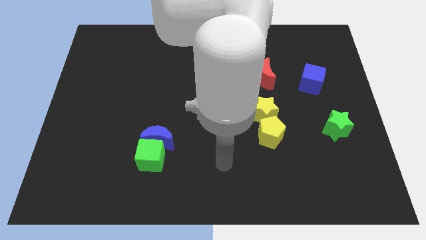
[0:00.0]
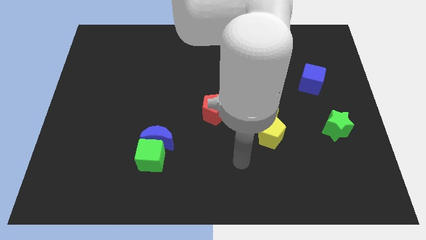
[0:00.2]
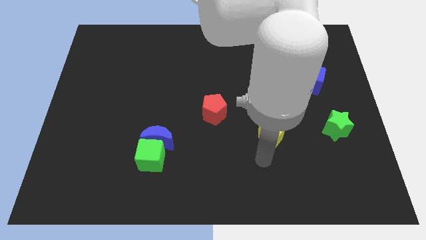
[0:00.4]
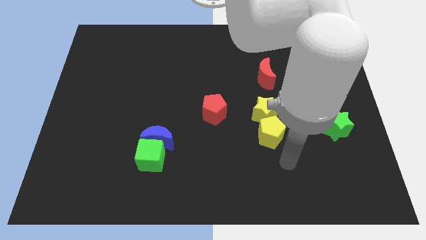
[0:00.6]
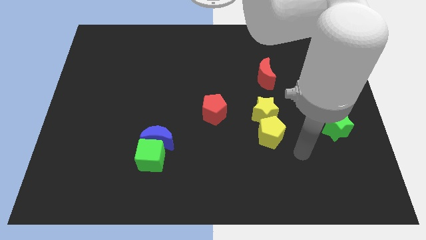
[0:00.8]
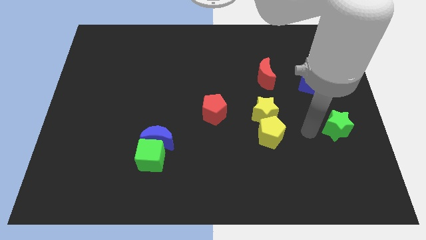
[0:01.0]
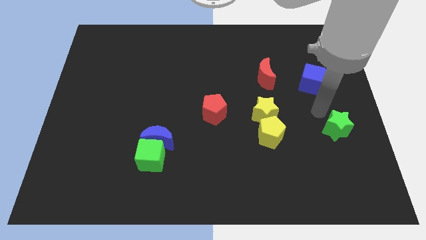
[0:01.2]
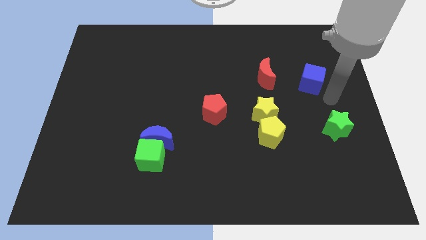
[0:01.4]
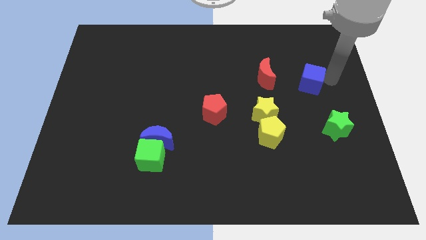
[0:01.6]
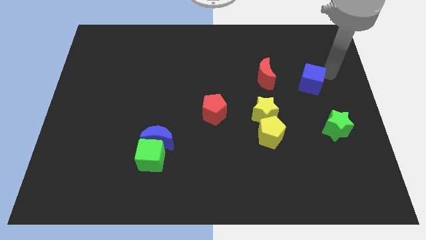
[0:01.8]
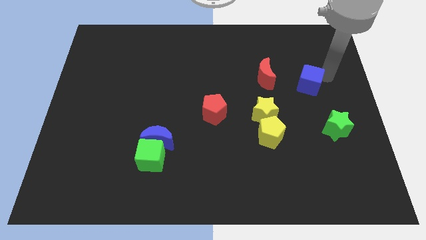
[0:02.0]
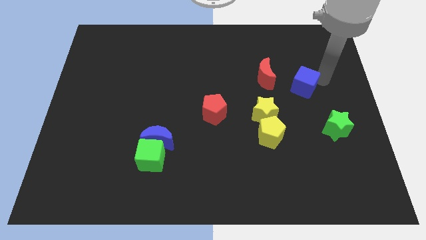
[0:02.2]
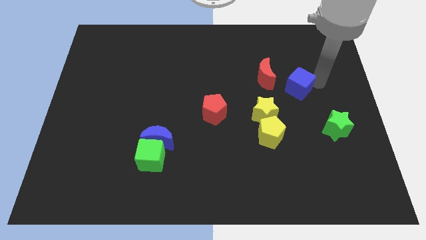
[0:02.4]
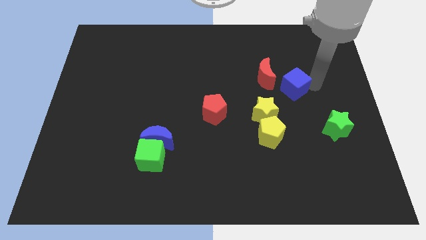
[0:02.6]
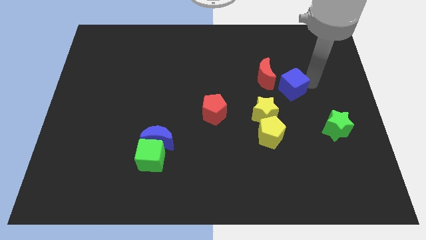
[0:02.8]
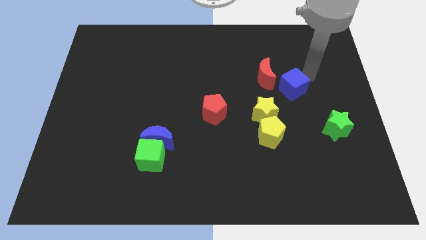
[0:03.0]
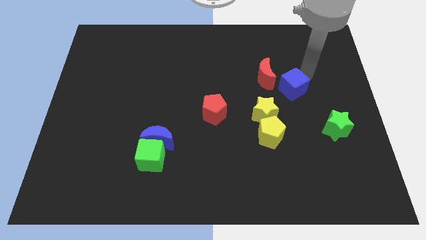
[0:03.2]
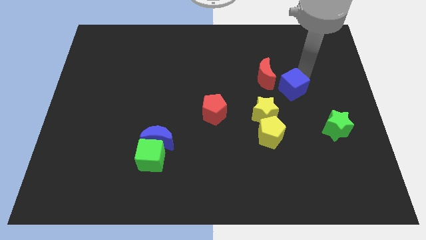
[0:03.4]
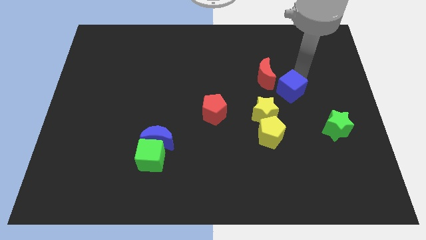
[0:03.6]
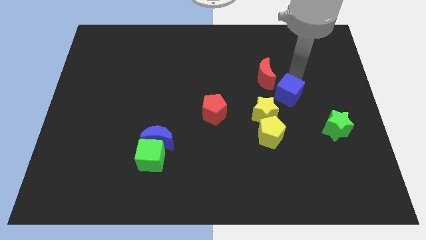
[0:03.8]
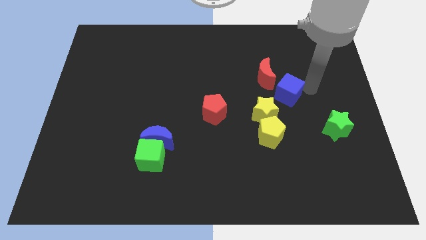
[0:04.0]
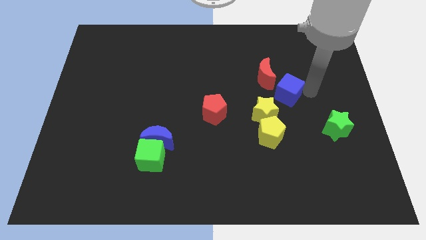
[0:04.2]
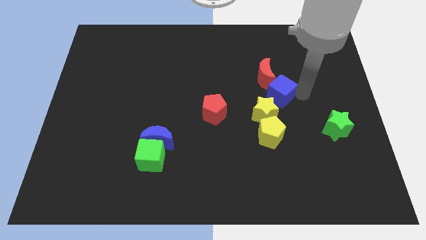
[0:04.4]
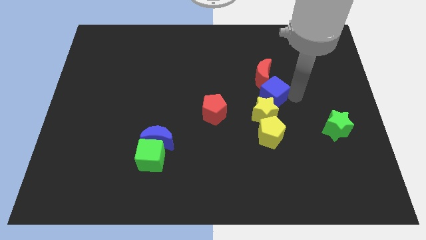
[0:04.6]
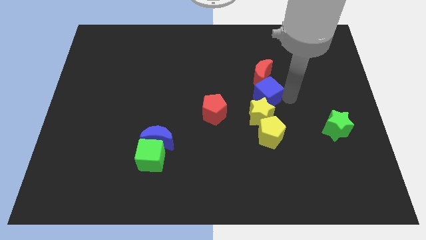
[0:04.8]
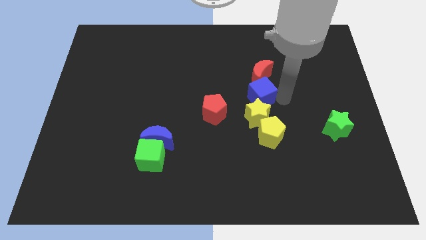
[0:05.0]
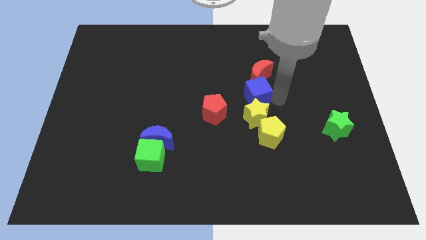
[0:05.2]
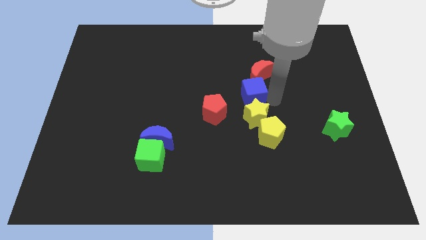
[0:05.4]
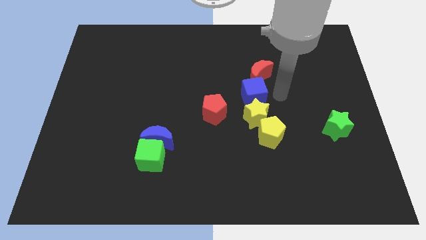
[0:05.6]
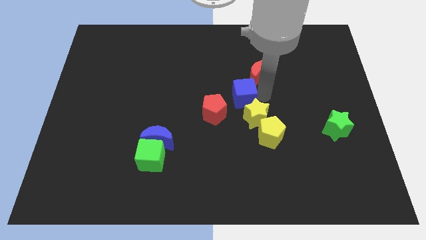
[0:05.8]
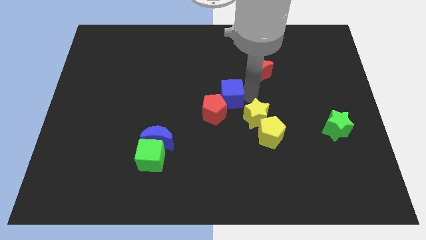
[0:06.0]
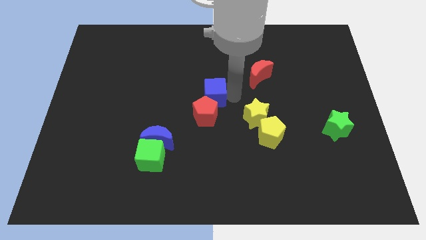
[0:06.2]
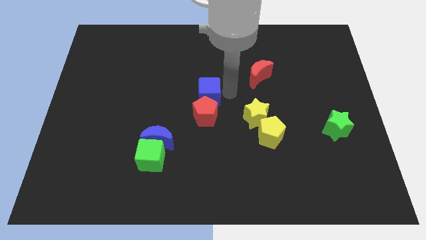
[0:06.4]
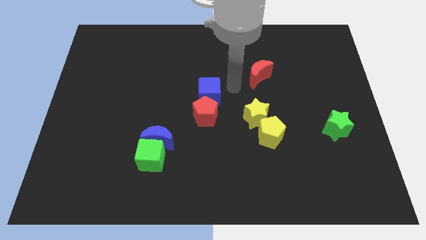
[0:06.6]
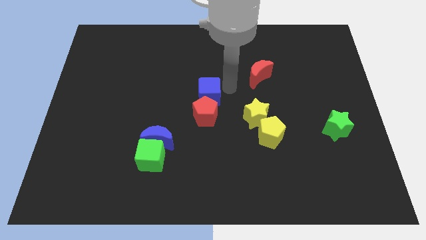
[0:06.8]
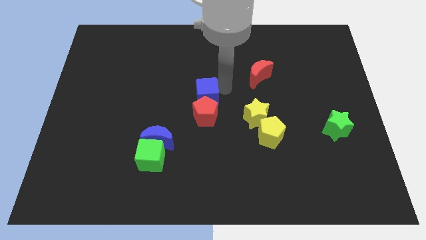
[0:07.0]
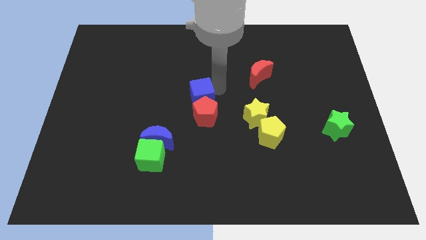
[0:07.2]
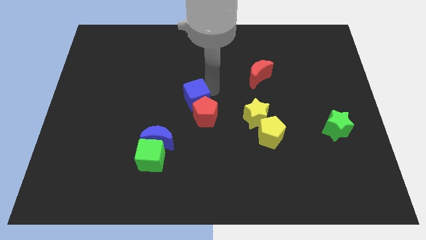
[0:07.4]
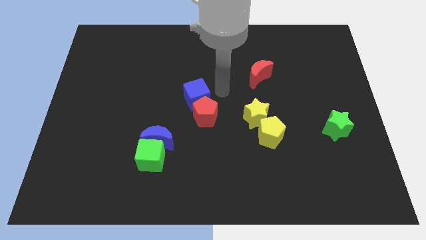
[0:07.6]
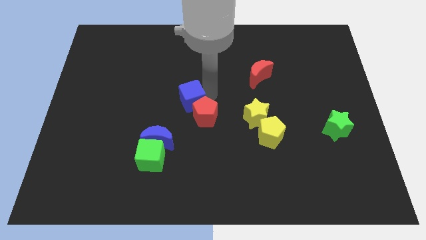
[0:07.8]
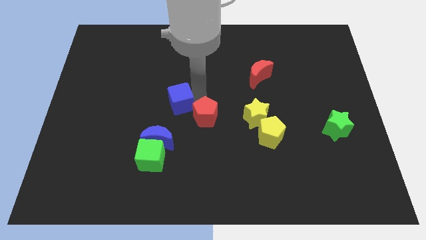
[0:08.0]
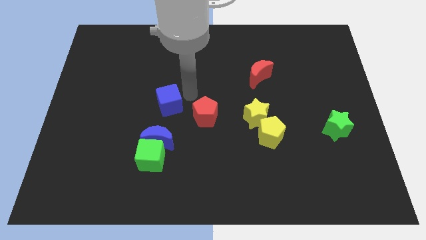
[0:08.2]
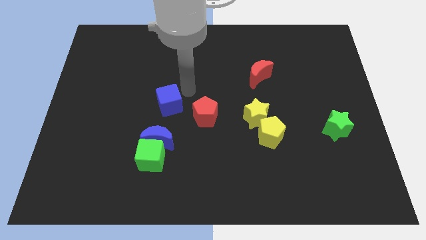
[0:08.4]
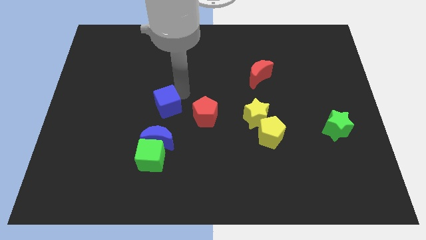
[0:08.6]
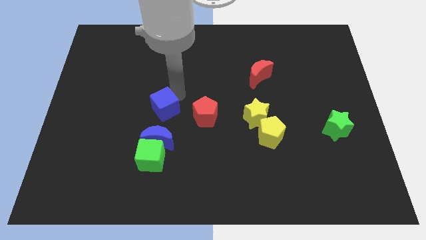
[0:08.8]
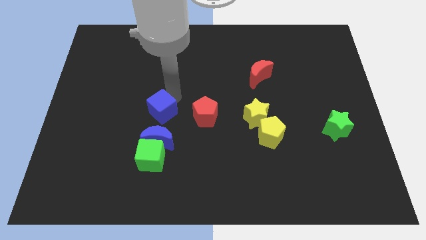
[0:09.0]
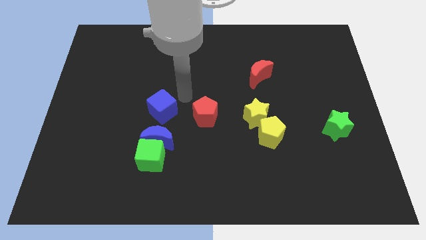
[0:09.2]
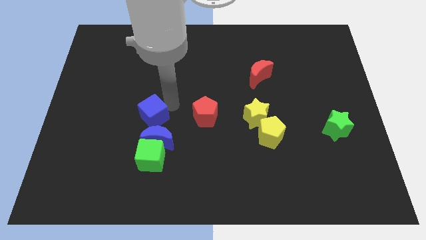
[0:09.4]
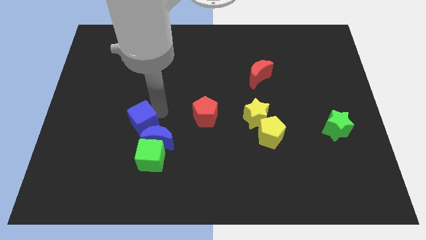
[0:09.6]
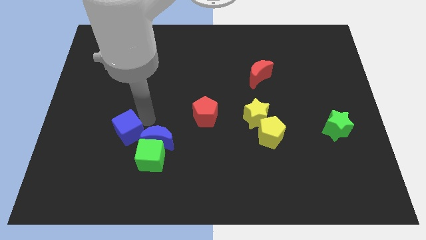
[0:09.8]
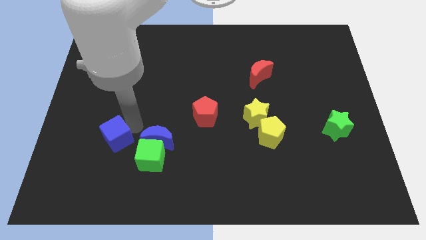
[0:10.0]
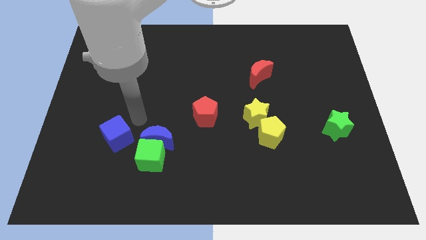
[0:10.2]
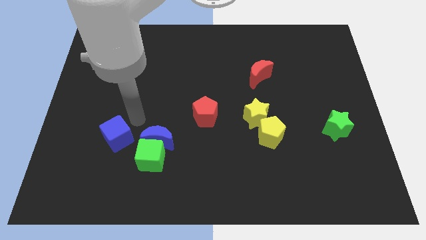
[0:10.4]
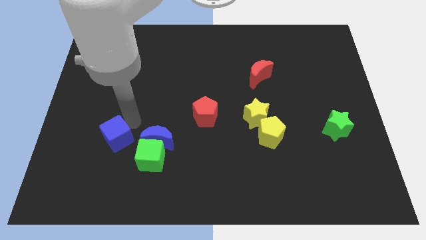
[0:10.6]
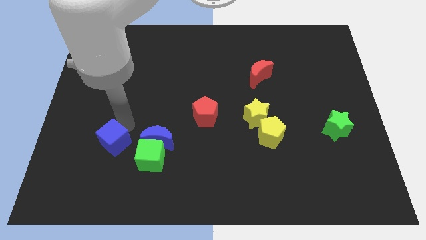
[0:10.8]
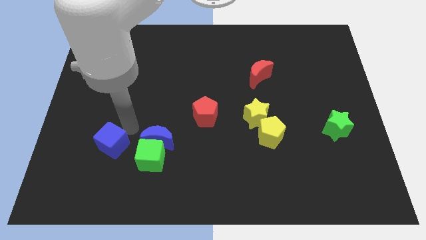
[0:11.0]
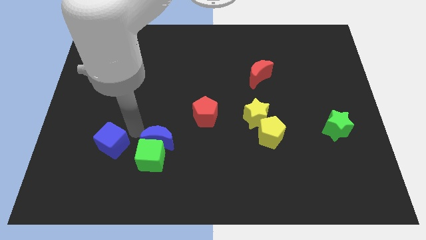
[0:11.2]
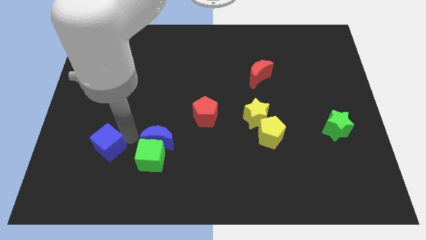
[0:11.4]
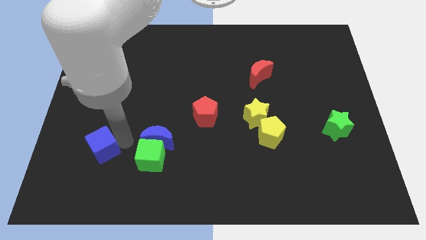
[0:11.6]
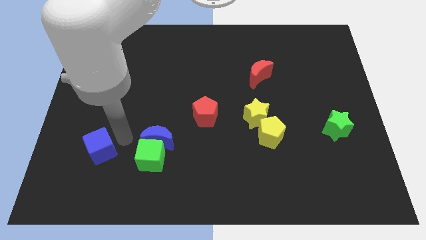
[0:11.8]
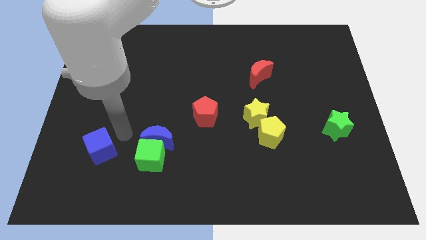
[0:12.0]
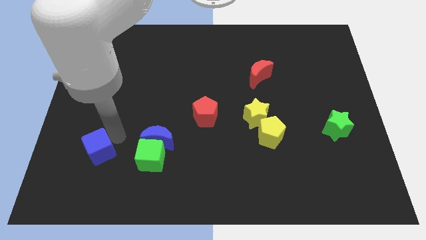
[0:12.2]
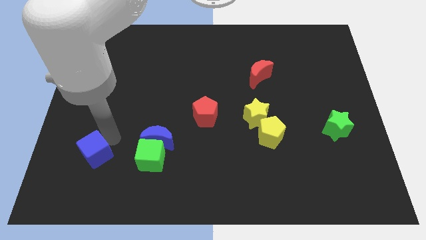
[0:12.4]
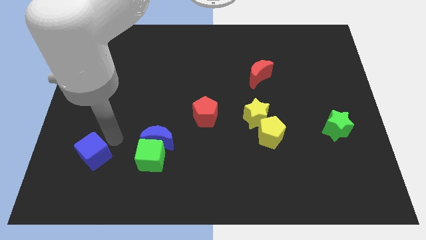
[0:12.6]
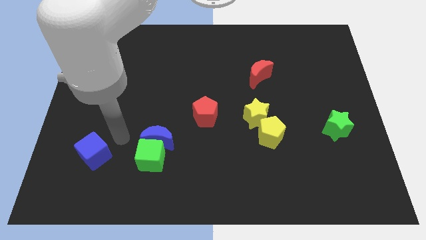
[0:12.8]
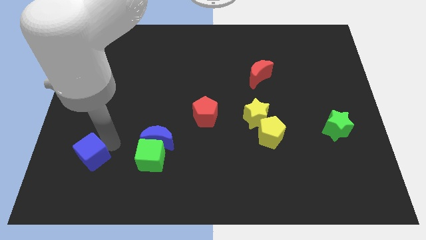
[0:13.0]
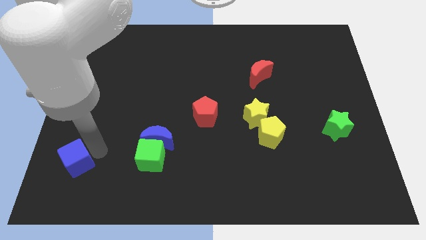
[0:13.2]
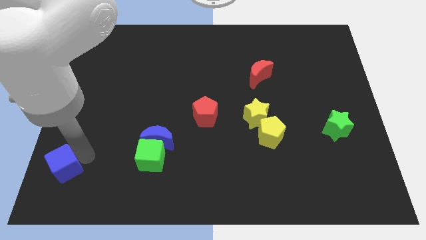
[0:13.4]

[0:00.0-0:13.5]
move the blue cube to the bottom left of the board

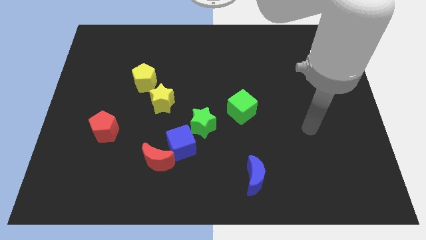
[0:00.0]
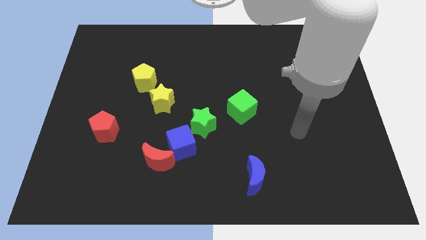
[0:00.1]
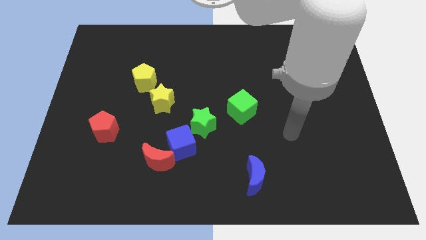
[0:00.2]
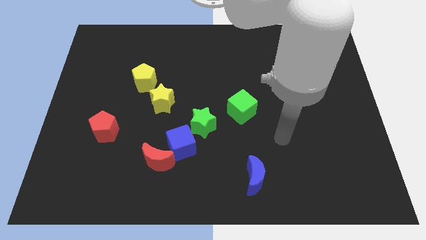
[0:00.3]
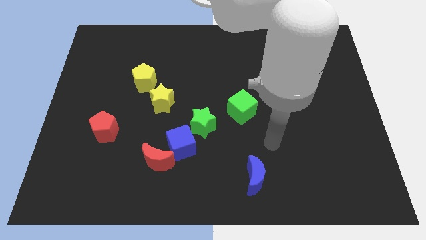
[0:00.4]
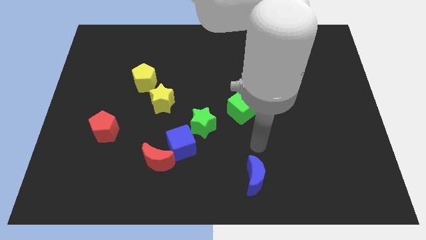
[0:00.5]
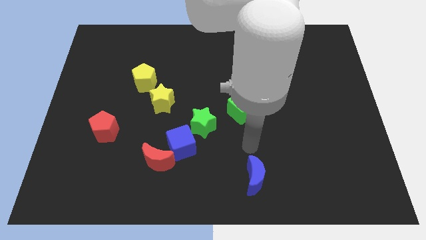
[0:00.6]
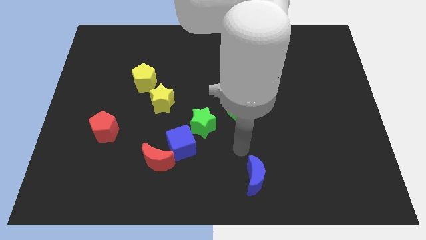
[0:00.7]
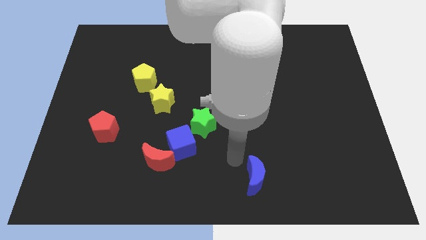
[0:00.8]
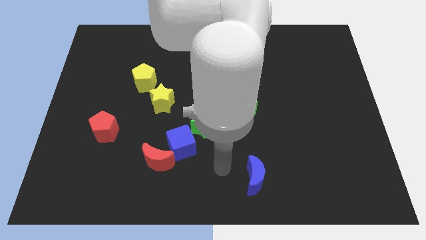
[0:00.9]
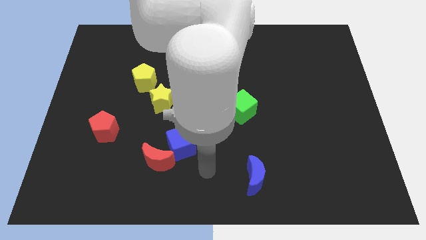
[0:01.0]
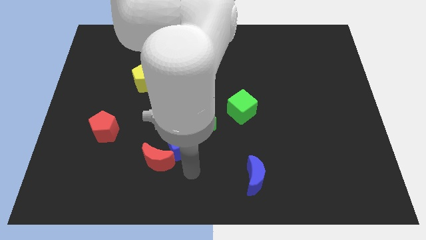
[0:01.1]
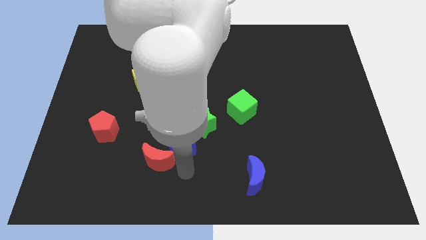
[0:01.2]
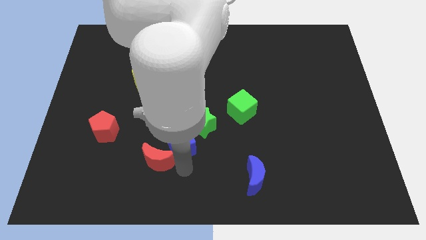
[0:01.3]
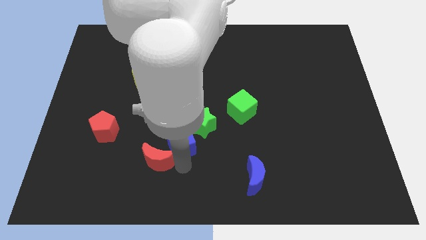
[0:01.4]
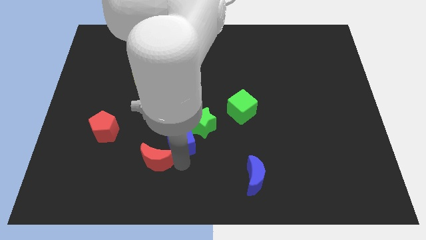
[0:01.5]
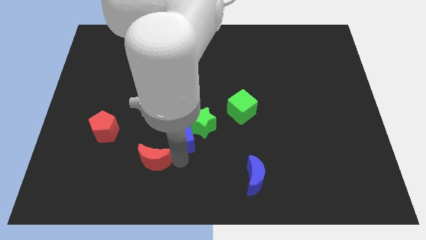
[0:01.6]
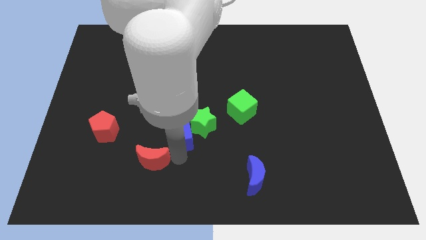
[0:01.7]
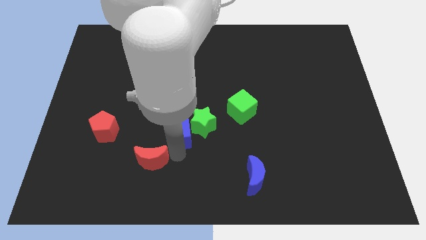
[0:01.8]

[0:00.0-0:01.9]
move the blue cube to the middle
